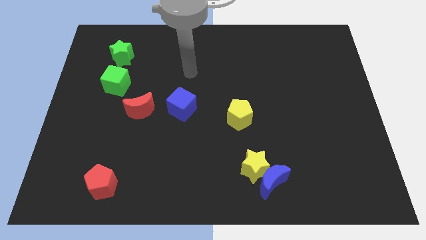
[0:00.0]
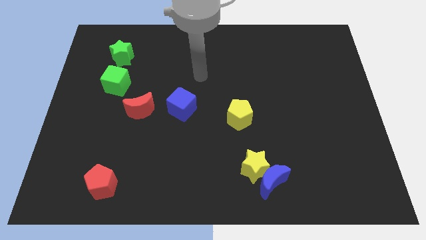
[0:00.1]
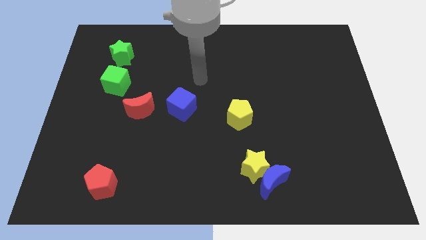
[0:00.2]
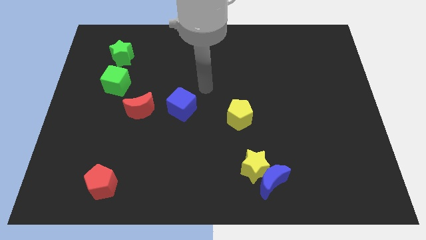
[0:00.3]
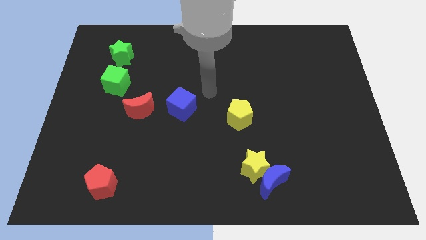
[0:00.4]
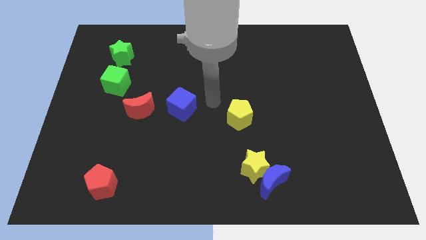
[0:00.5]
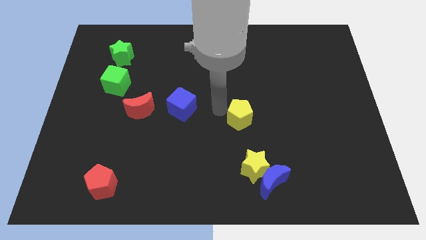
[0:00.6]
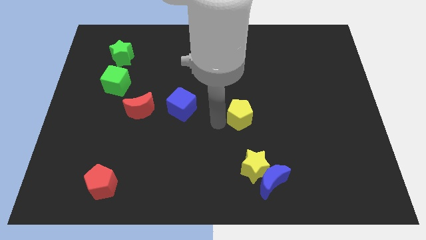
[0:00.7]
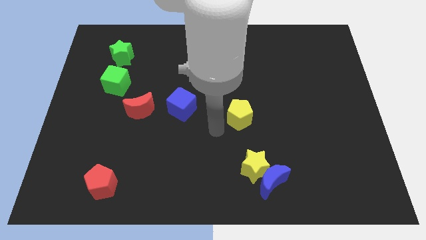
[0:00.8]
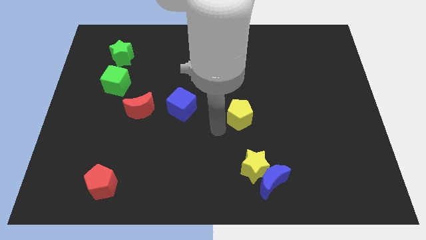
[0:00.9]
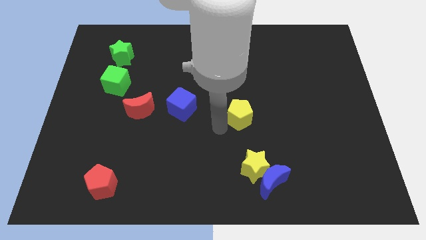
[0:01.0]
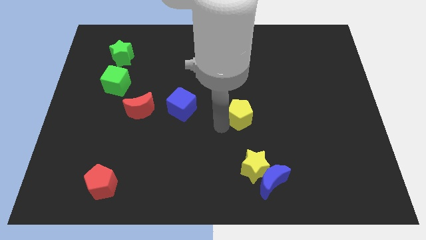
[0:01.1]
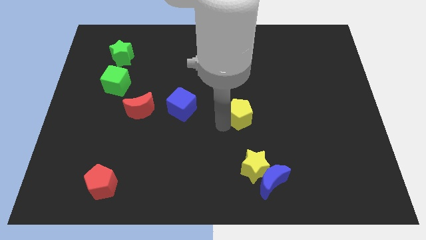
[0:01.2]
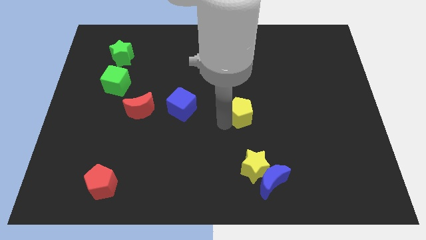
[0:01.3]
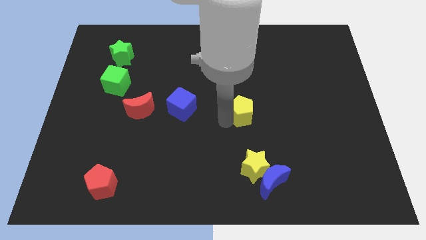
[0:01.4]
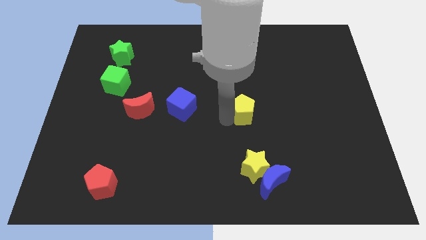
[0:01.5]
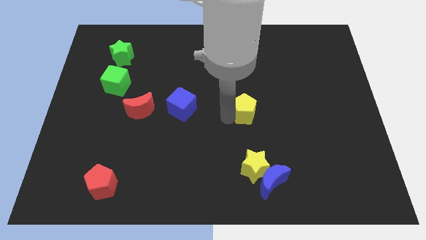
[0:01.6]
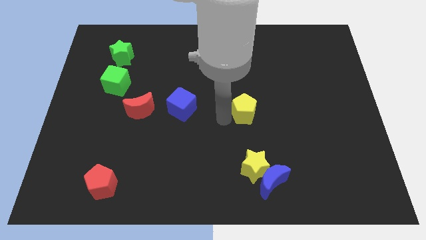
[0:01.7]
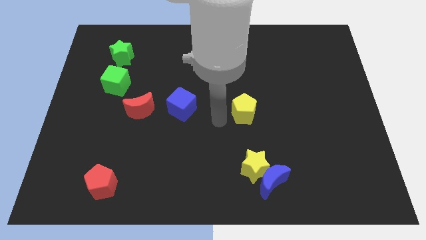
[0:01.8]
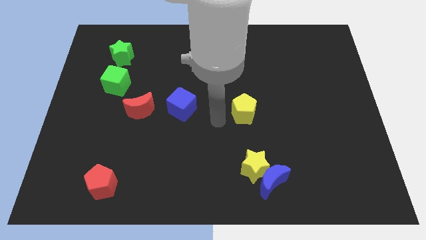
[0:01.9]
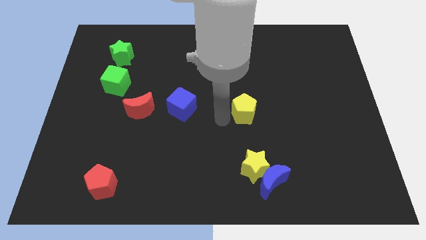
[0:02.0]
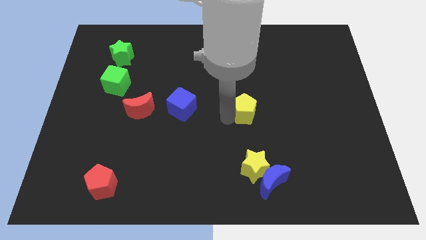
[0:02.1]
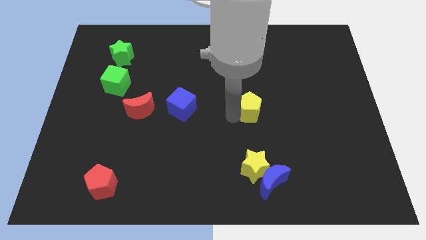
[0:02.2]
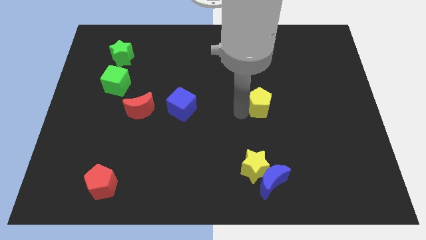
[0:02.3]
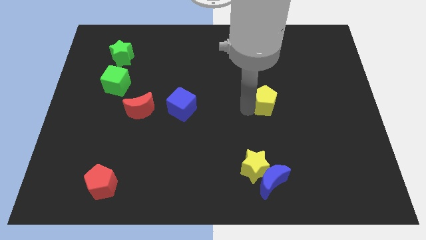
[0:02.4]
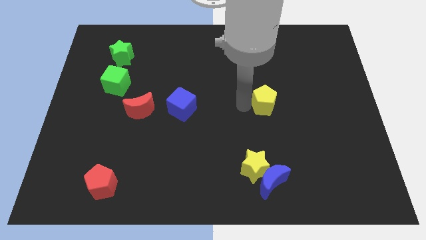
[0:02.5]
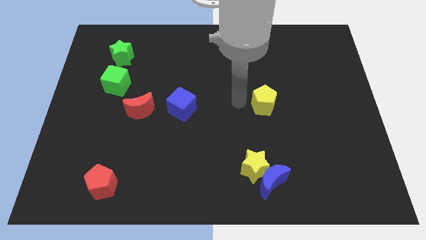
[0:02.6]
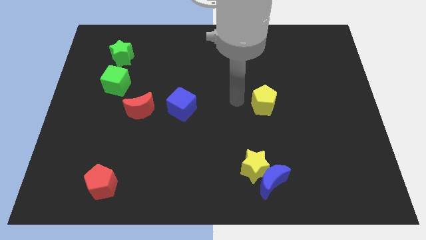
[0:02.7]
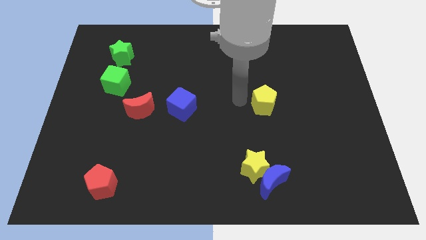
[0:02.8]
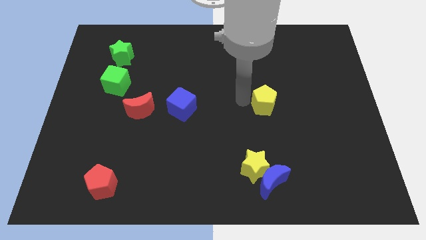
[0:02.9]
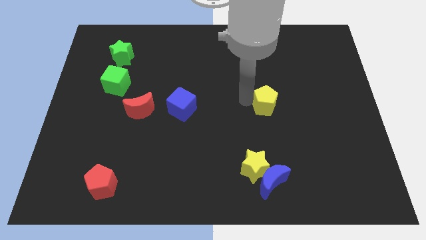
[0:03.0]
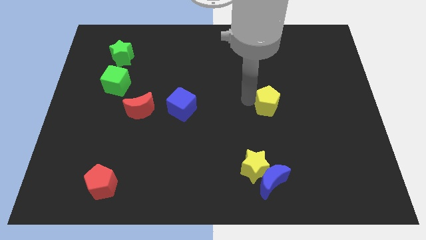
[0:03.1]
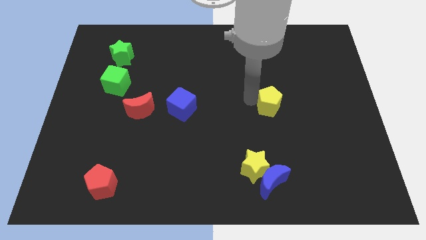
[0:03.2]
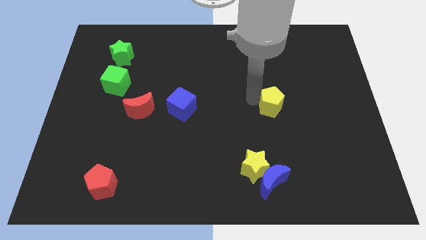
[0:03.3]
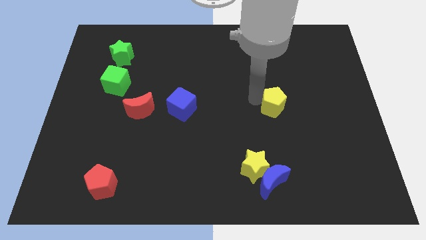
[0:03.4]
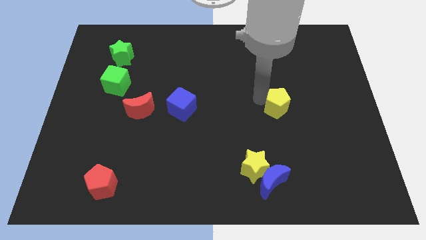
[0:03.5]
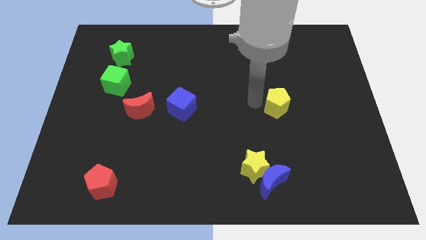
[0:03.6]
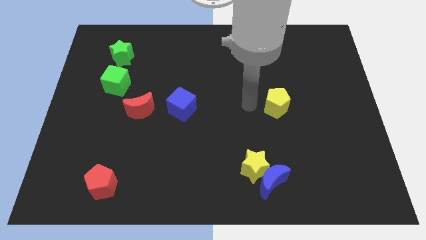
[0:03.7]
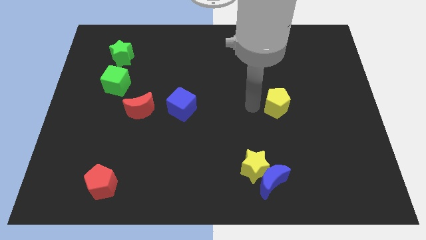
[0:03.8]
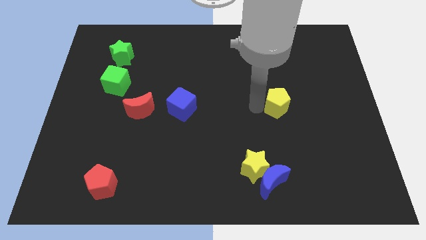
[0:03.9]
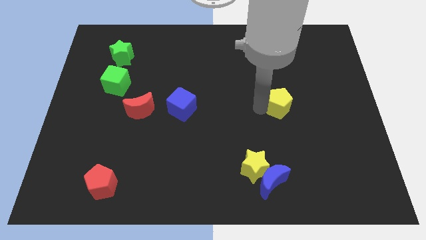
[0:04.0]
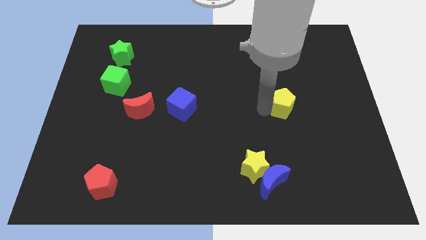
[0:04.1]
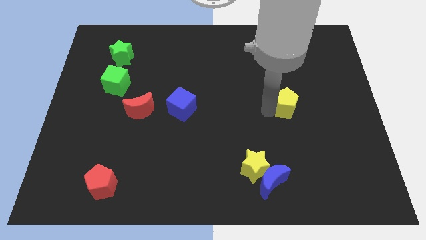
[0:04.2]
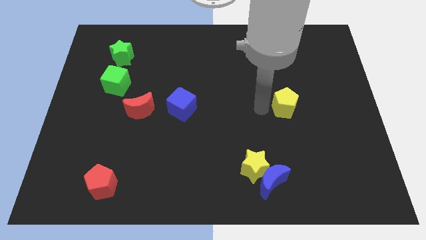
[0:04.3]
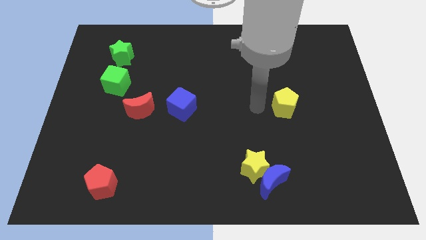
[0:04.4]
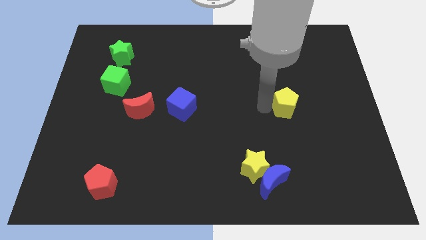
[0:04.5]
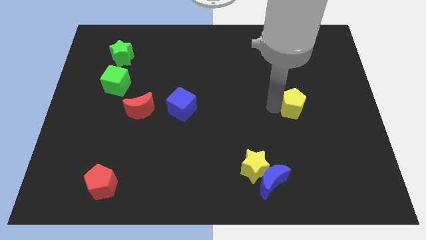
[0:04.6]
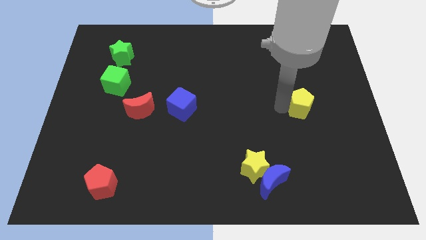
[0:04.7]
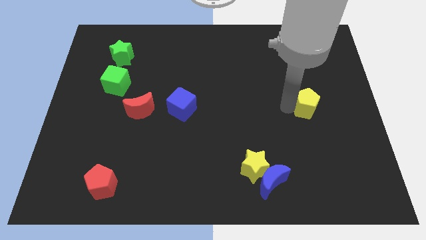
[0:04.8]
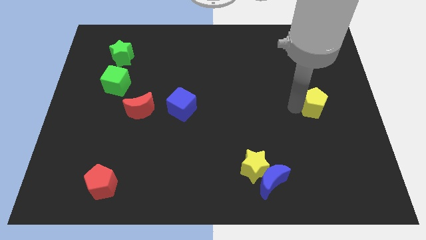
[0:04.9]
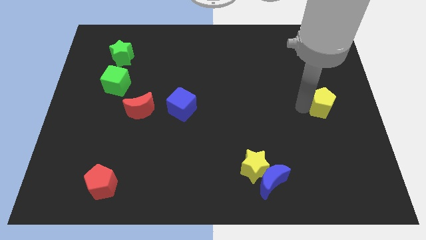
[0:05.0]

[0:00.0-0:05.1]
move the yellow pentagon to the right side

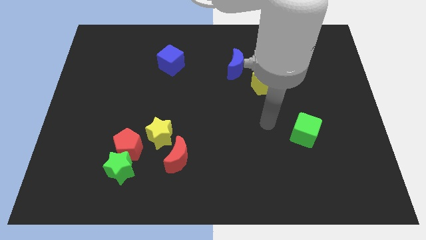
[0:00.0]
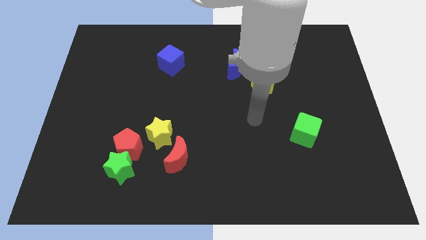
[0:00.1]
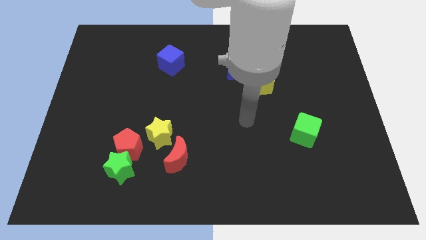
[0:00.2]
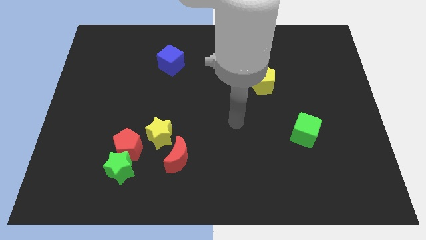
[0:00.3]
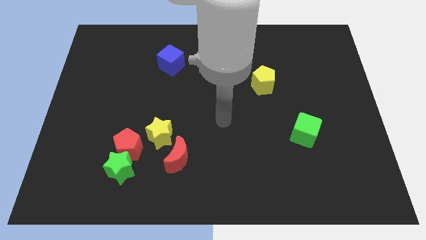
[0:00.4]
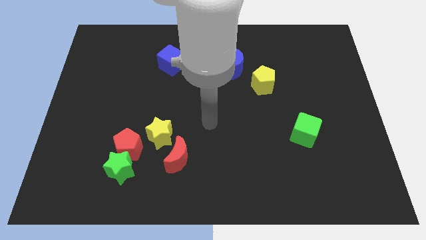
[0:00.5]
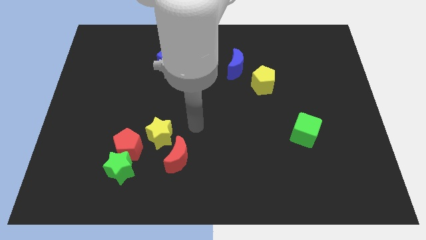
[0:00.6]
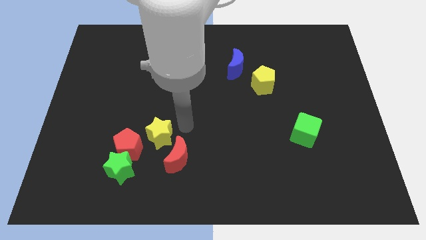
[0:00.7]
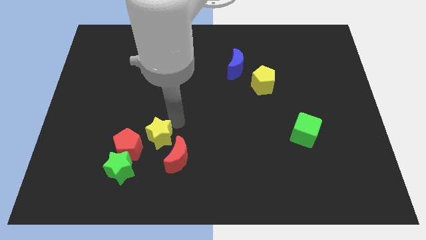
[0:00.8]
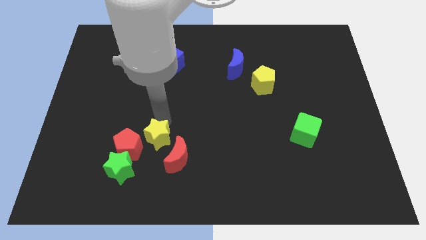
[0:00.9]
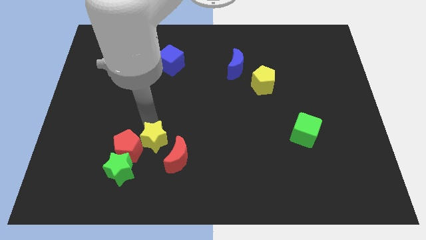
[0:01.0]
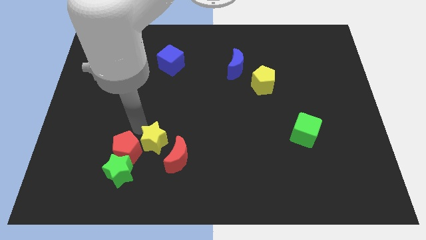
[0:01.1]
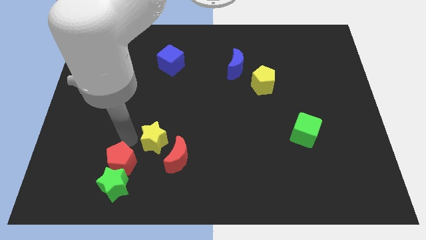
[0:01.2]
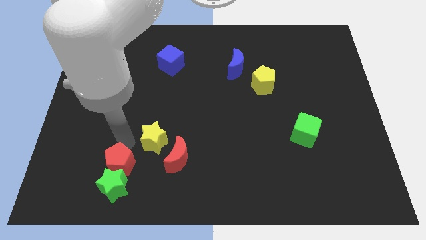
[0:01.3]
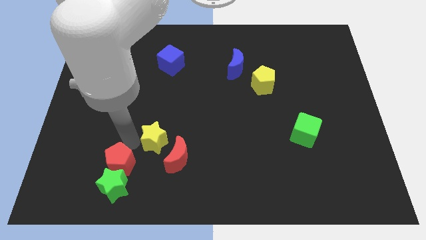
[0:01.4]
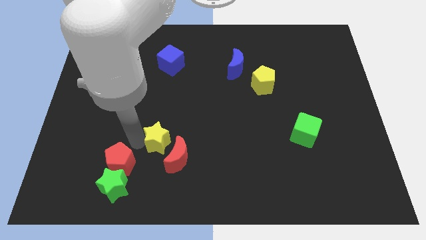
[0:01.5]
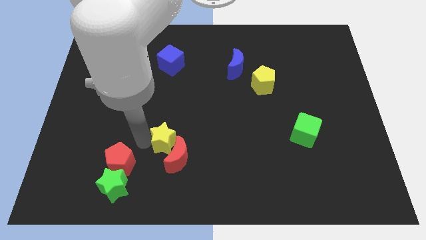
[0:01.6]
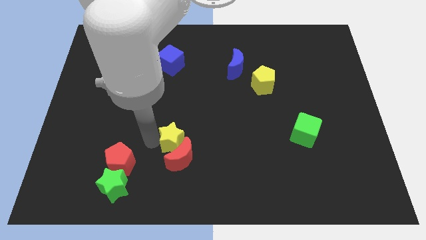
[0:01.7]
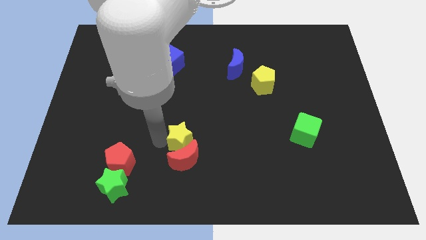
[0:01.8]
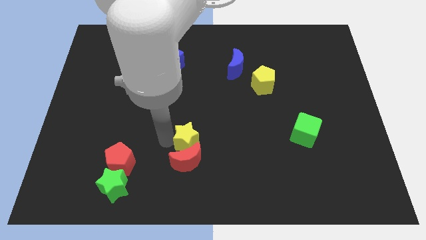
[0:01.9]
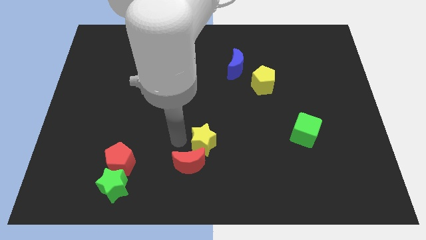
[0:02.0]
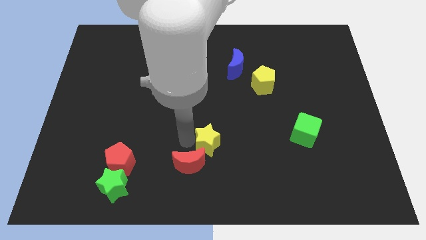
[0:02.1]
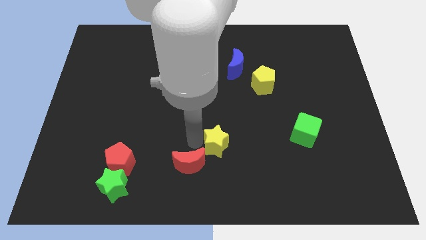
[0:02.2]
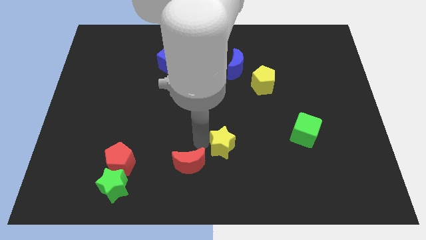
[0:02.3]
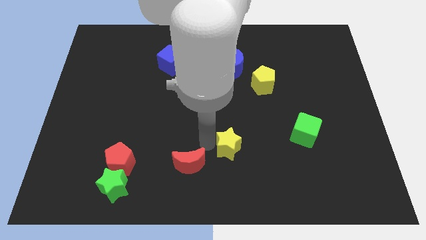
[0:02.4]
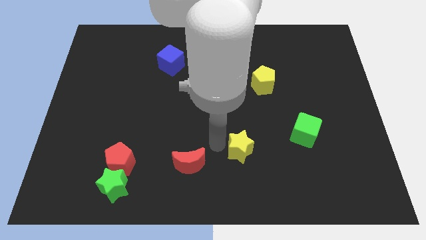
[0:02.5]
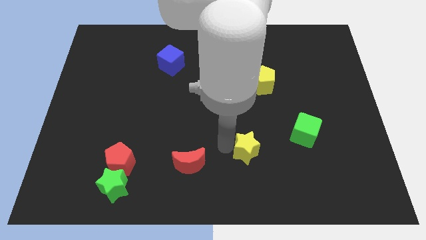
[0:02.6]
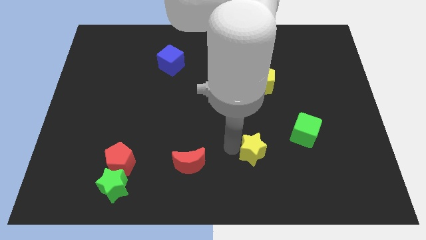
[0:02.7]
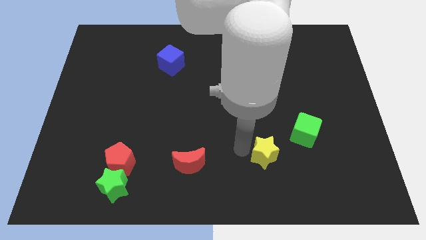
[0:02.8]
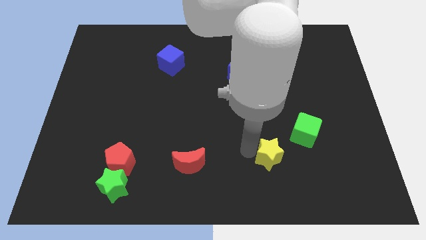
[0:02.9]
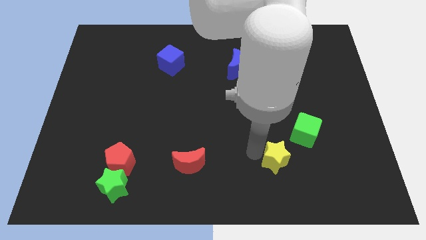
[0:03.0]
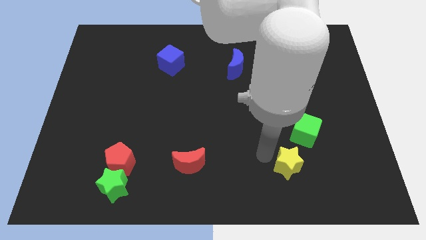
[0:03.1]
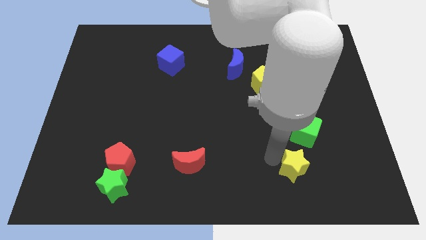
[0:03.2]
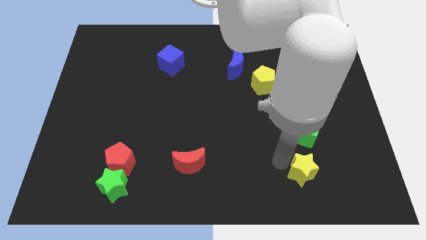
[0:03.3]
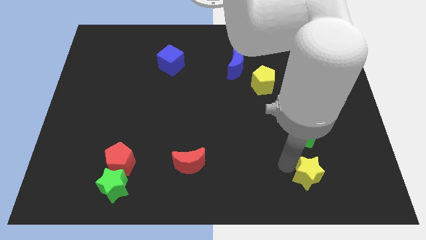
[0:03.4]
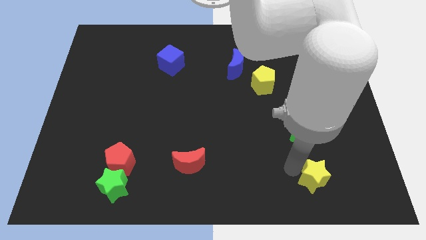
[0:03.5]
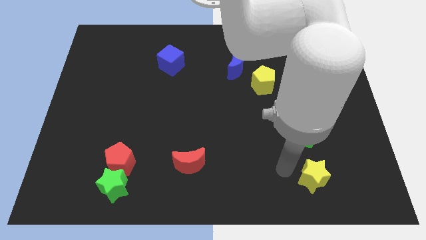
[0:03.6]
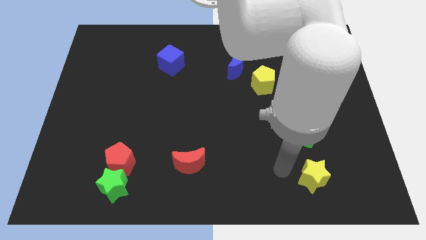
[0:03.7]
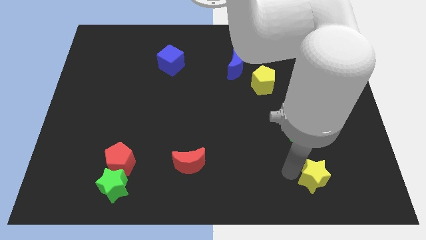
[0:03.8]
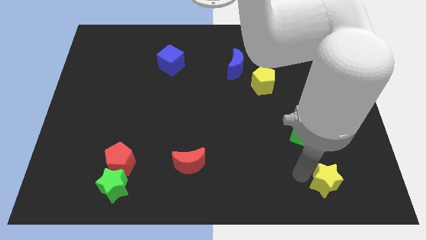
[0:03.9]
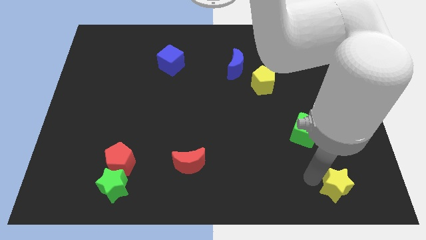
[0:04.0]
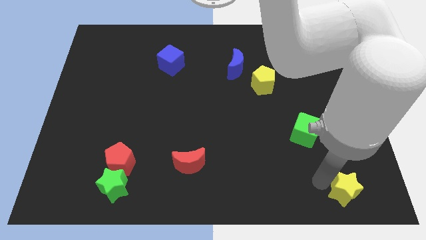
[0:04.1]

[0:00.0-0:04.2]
move the yellow star to the bottom right of the board
